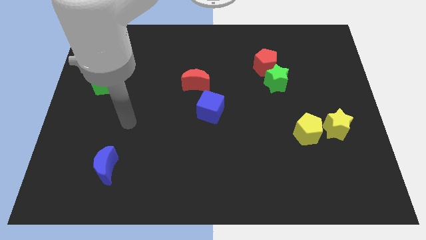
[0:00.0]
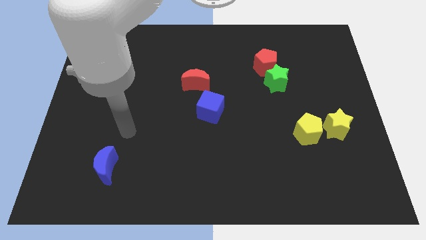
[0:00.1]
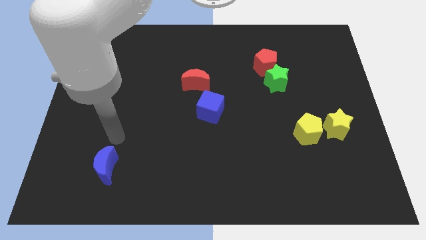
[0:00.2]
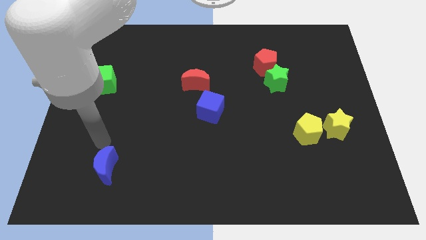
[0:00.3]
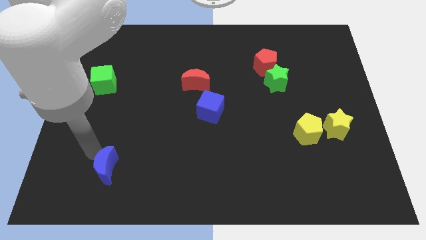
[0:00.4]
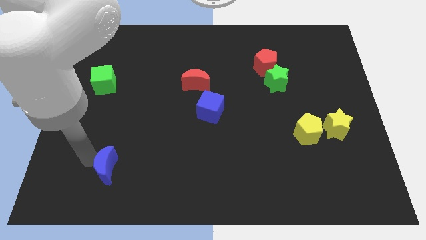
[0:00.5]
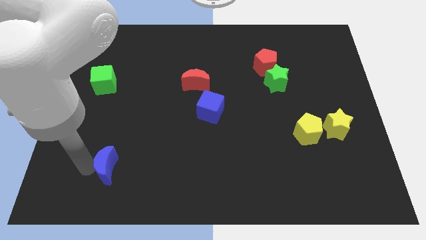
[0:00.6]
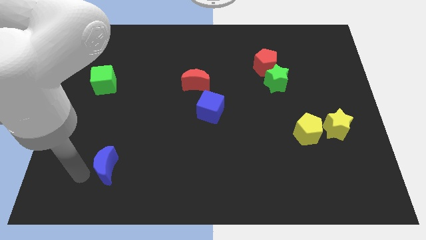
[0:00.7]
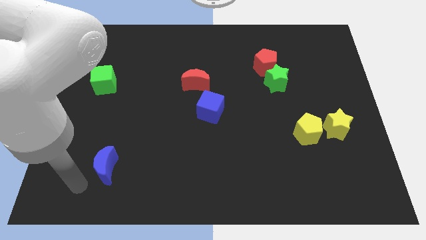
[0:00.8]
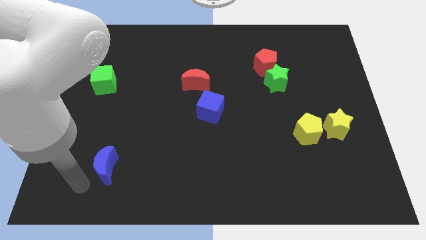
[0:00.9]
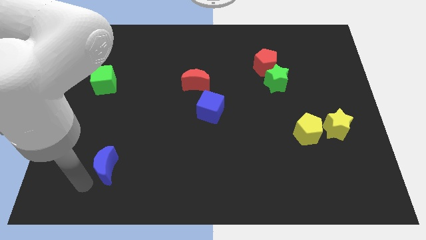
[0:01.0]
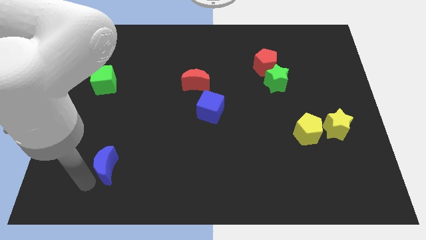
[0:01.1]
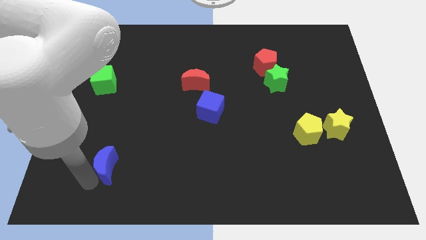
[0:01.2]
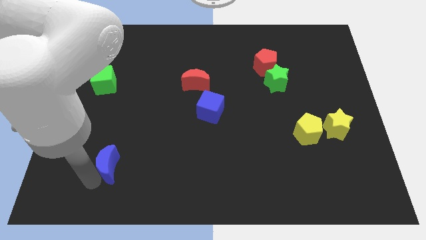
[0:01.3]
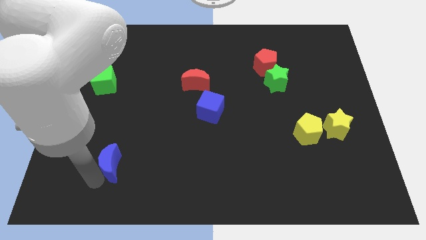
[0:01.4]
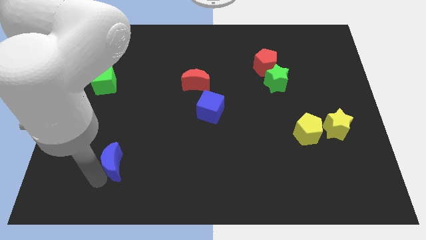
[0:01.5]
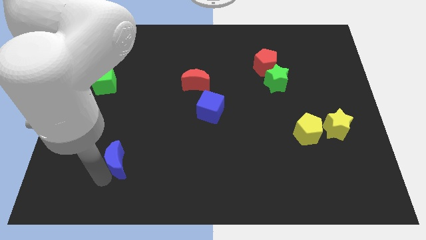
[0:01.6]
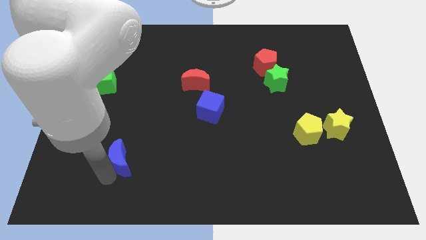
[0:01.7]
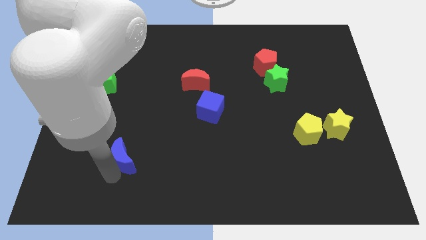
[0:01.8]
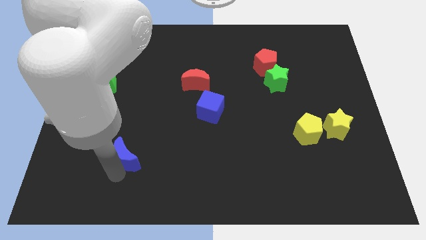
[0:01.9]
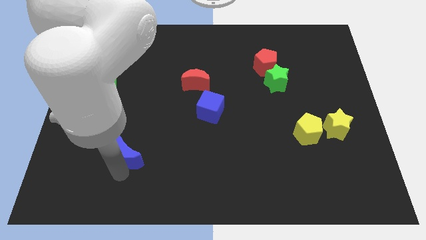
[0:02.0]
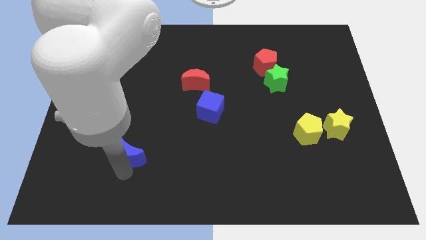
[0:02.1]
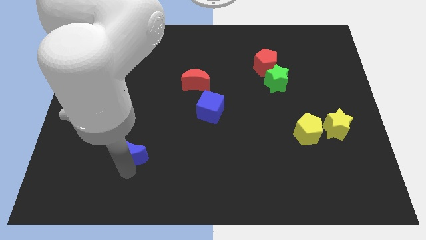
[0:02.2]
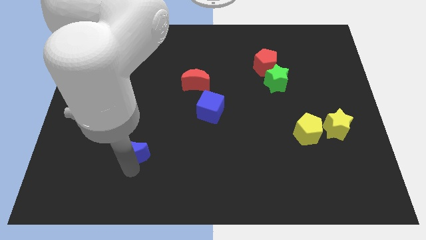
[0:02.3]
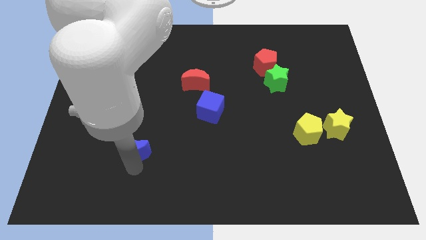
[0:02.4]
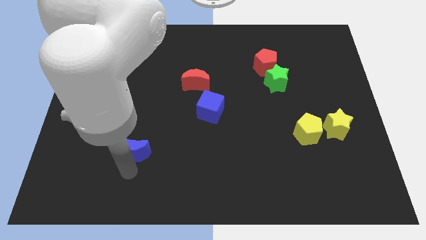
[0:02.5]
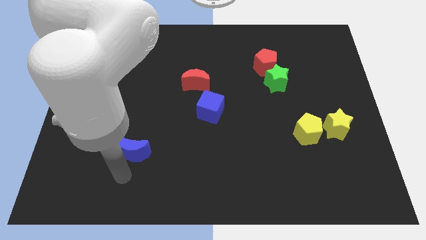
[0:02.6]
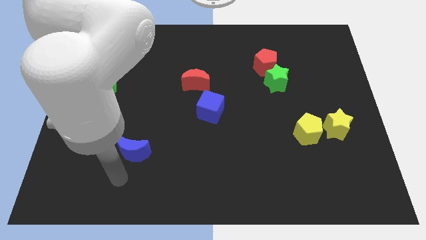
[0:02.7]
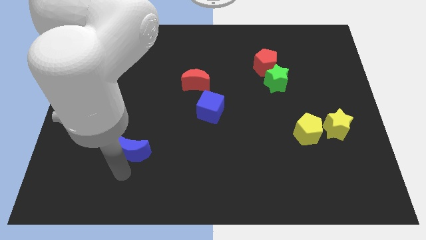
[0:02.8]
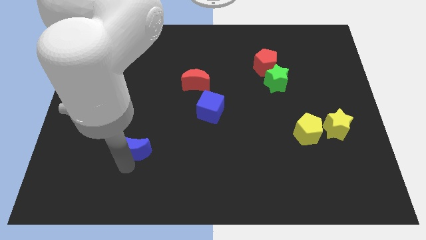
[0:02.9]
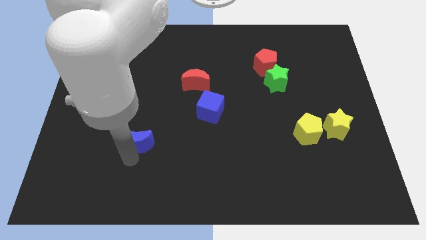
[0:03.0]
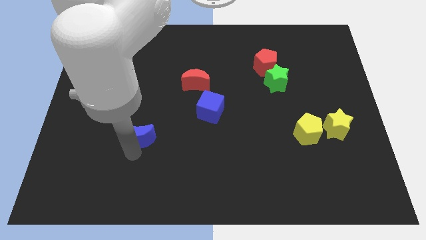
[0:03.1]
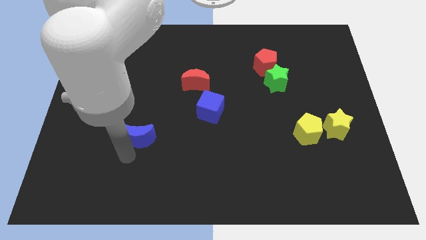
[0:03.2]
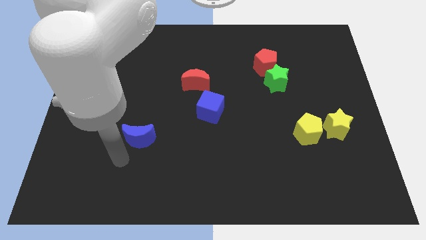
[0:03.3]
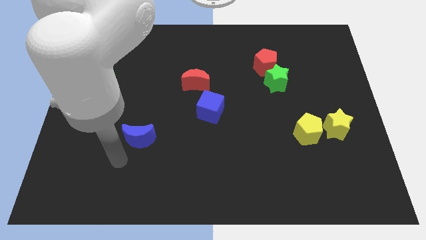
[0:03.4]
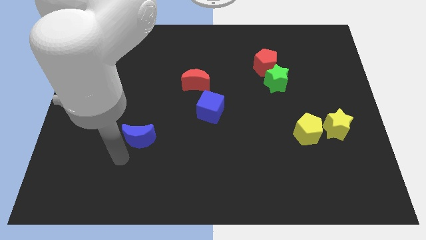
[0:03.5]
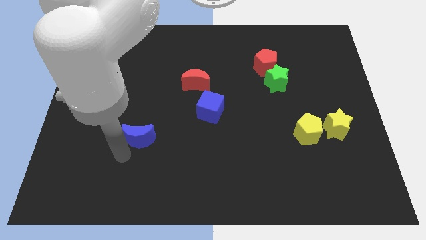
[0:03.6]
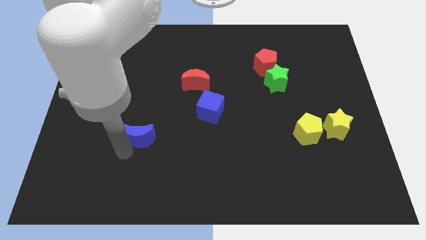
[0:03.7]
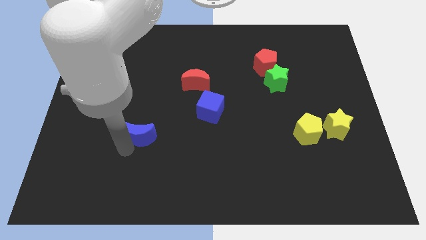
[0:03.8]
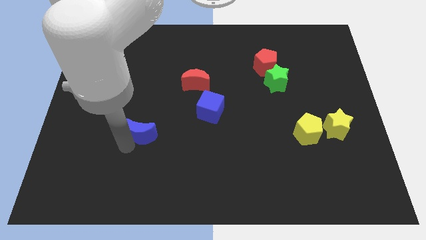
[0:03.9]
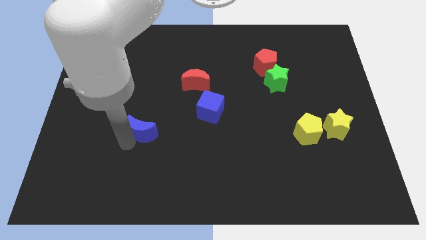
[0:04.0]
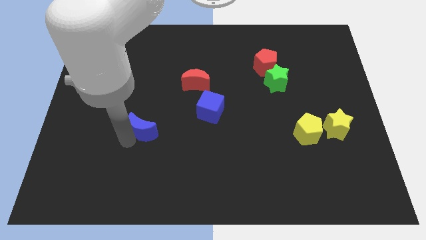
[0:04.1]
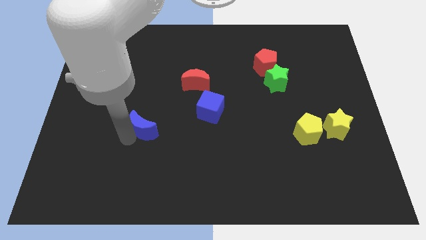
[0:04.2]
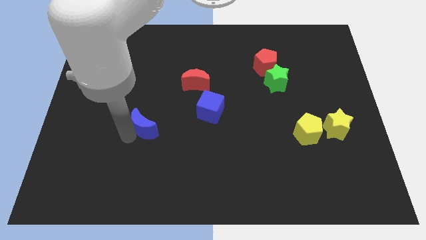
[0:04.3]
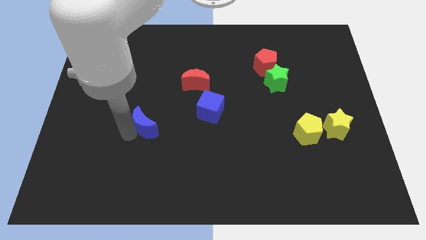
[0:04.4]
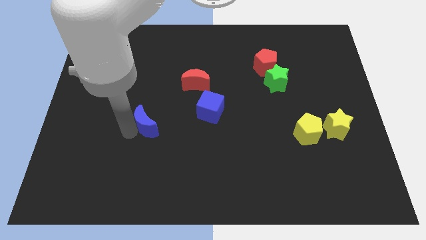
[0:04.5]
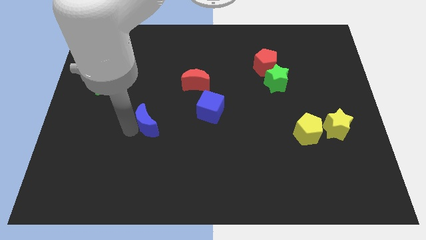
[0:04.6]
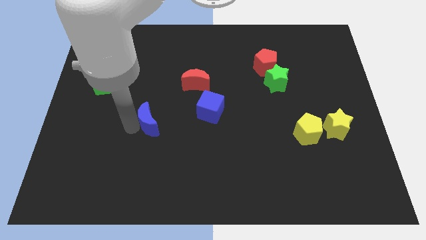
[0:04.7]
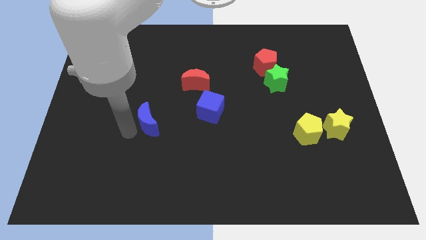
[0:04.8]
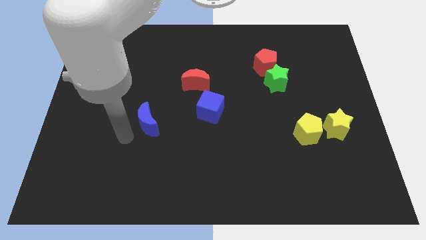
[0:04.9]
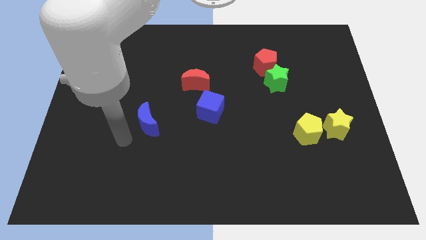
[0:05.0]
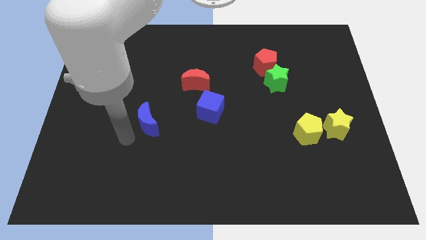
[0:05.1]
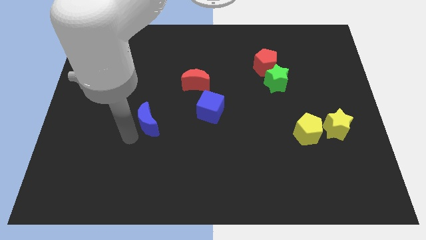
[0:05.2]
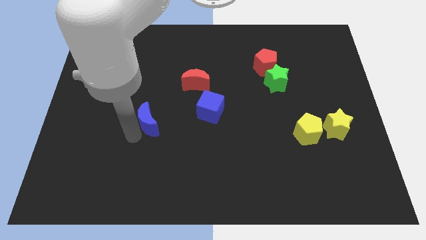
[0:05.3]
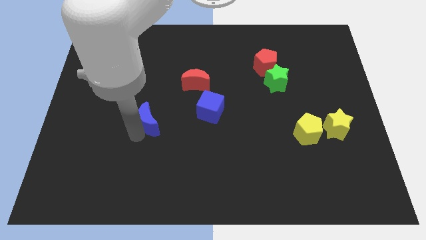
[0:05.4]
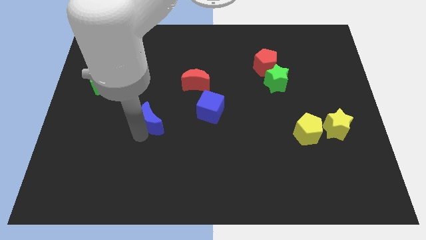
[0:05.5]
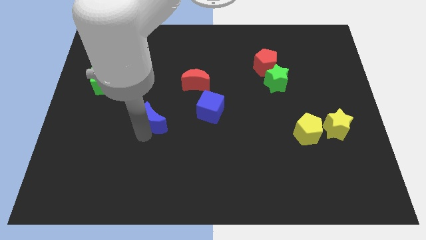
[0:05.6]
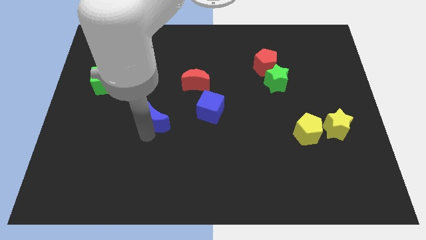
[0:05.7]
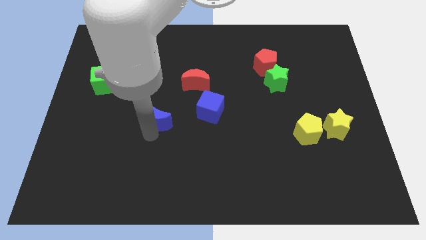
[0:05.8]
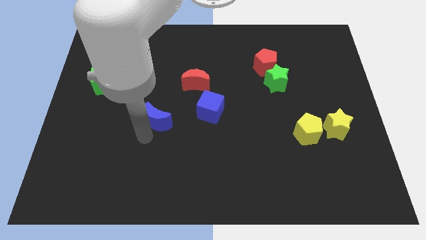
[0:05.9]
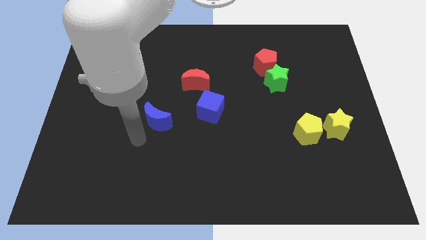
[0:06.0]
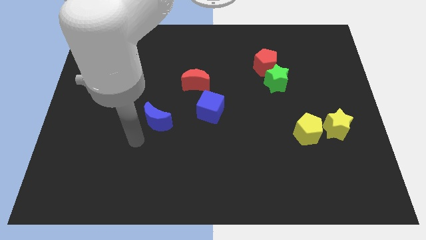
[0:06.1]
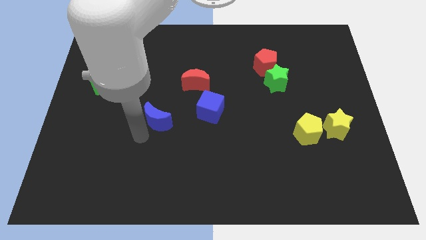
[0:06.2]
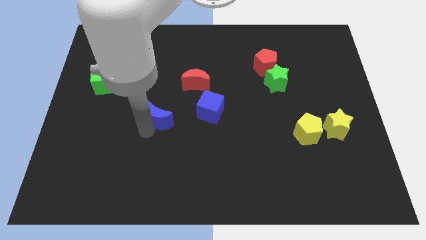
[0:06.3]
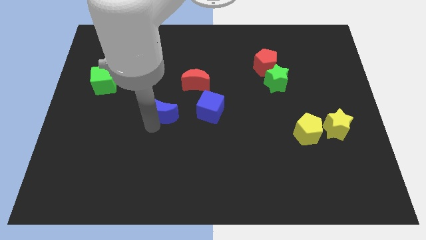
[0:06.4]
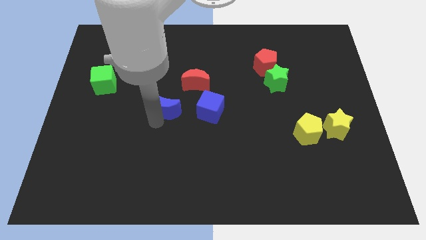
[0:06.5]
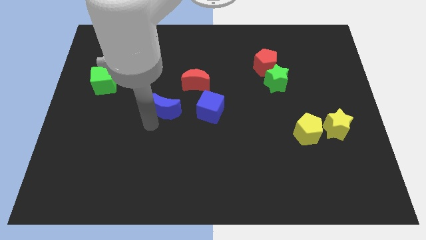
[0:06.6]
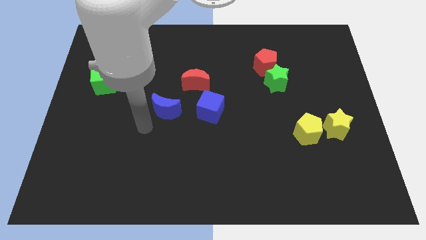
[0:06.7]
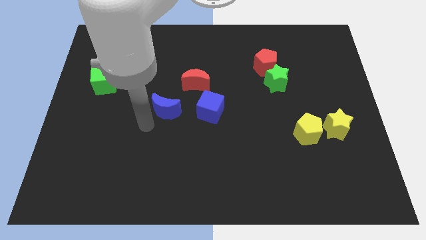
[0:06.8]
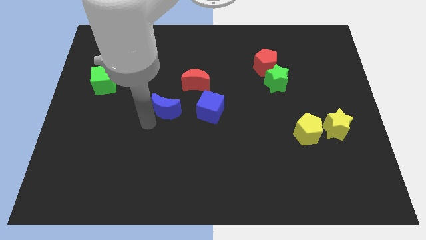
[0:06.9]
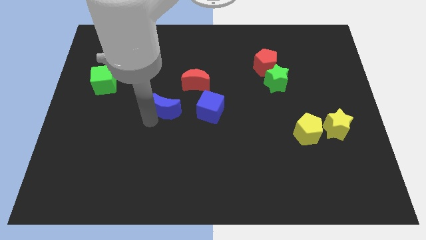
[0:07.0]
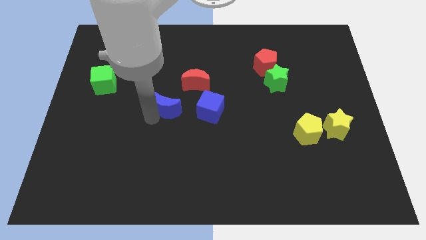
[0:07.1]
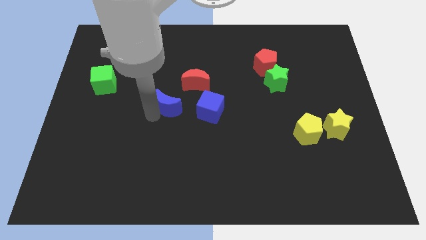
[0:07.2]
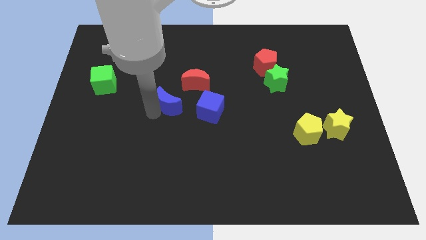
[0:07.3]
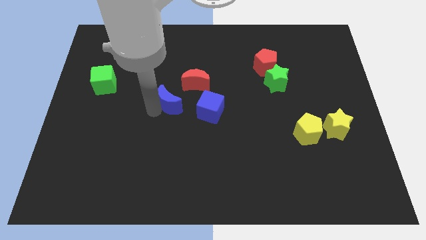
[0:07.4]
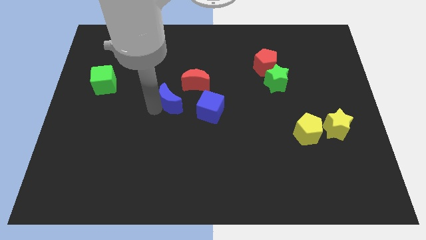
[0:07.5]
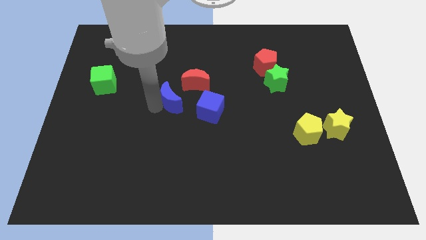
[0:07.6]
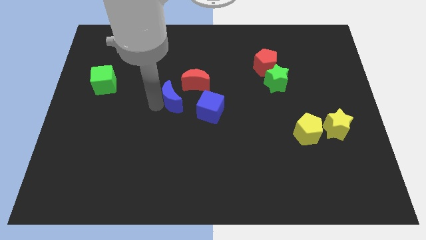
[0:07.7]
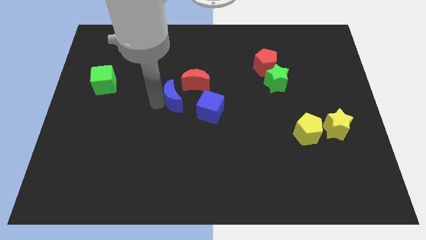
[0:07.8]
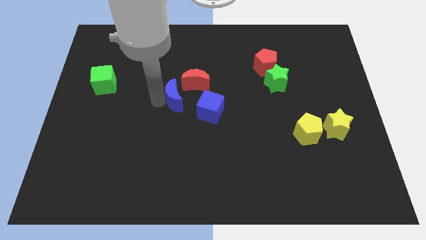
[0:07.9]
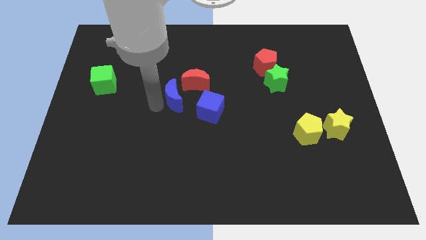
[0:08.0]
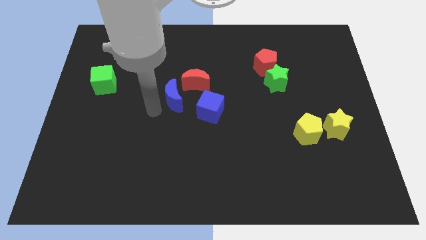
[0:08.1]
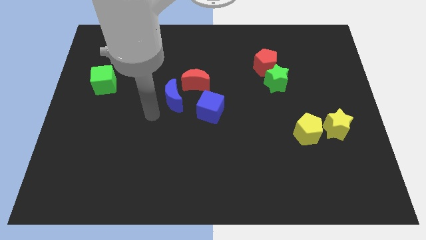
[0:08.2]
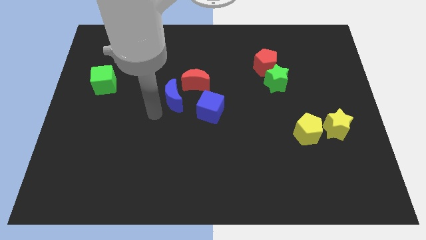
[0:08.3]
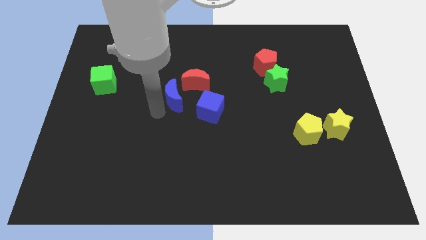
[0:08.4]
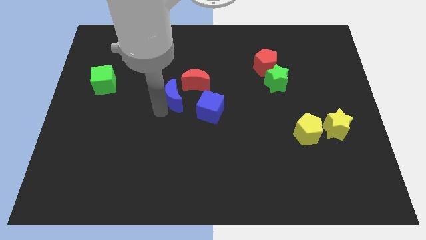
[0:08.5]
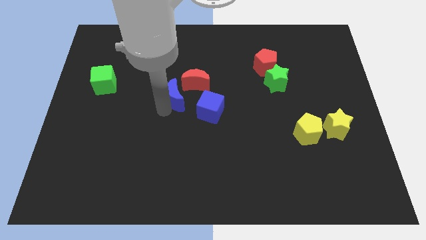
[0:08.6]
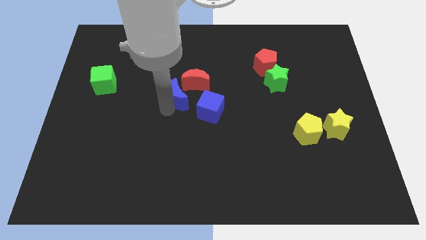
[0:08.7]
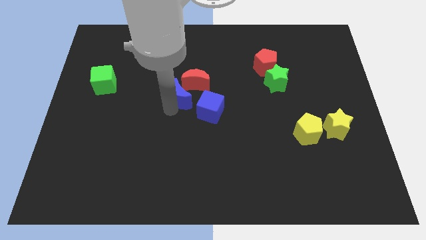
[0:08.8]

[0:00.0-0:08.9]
slide the blue moon next to the red moon
